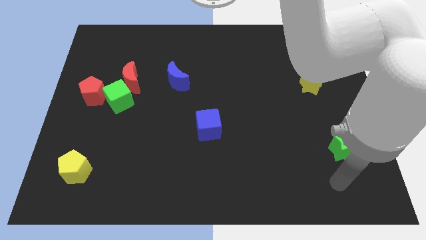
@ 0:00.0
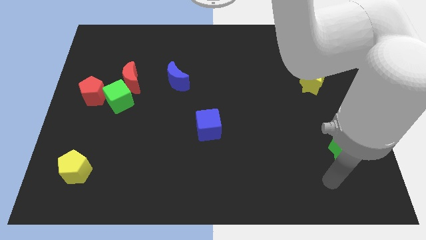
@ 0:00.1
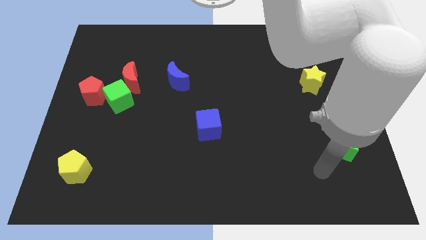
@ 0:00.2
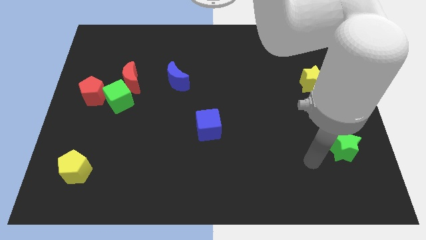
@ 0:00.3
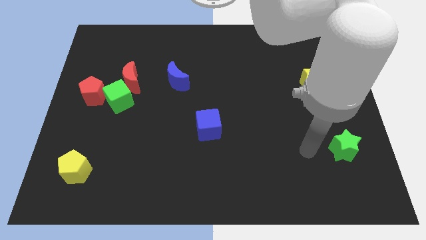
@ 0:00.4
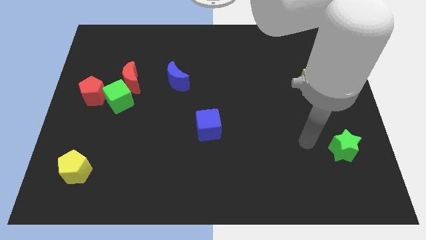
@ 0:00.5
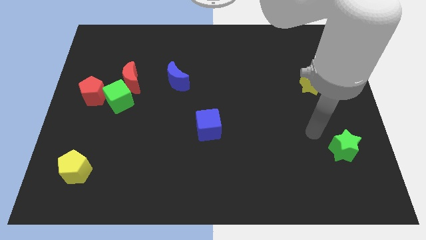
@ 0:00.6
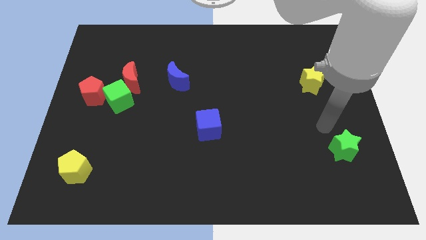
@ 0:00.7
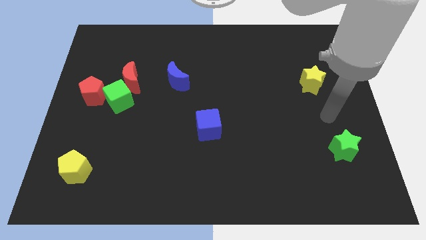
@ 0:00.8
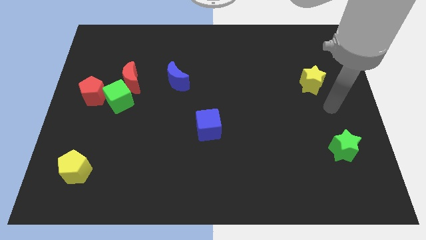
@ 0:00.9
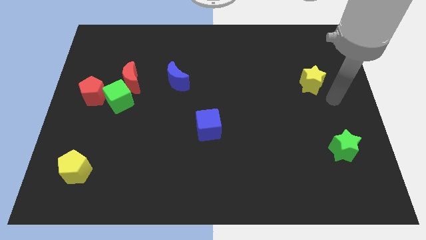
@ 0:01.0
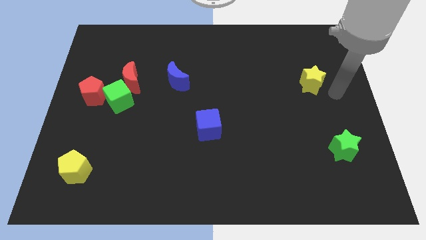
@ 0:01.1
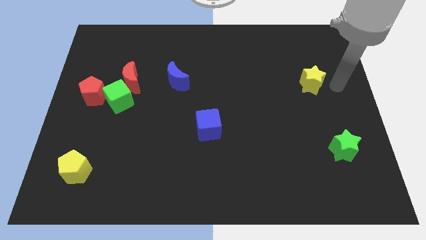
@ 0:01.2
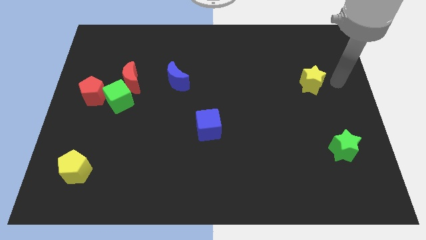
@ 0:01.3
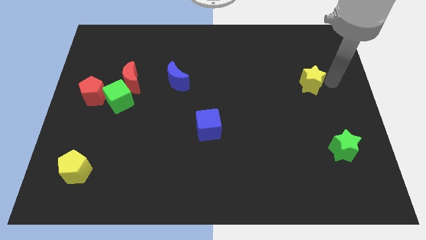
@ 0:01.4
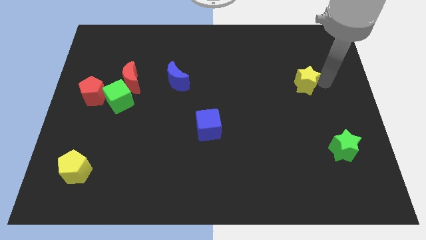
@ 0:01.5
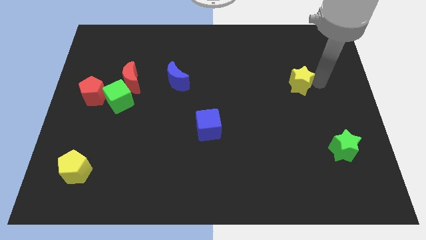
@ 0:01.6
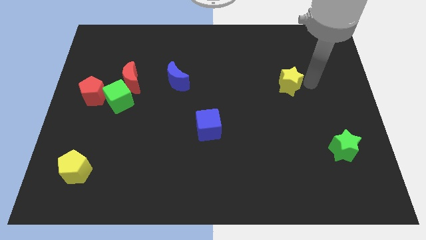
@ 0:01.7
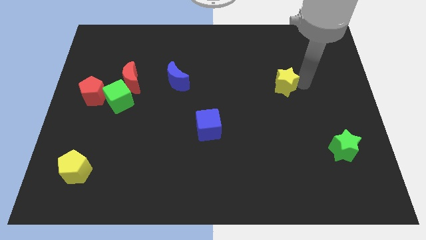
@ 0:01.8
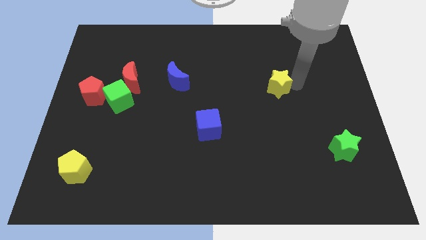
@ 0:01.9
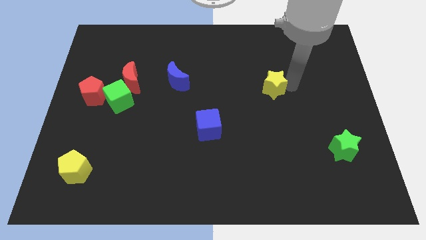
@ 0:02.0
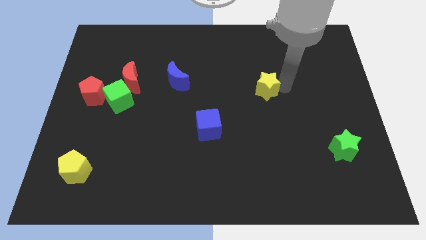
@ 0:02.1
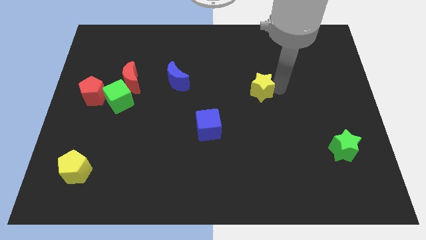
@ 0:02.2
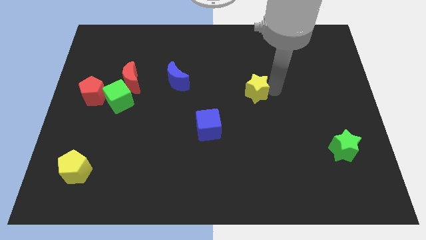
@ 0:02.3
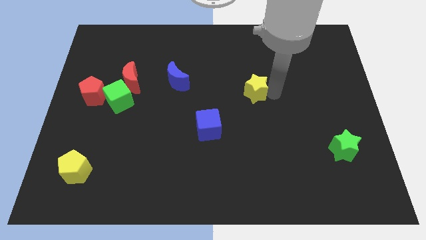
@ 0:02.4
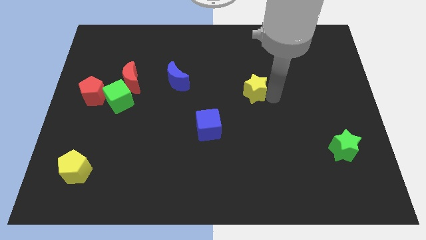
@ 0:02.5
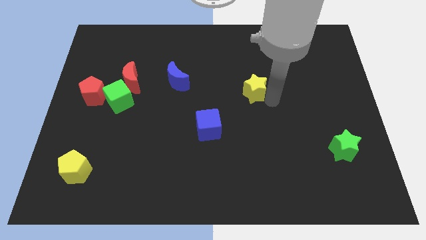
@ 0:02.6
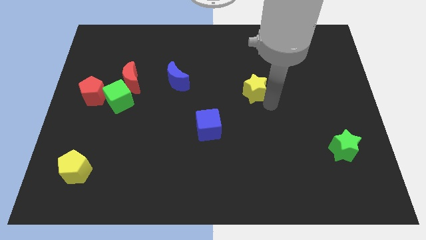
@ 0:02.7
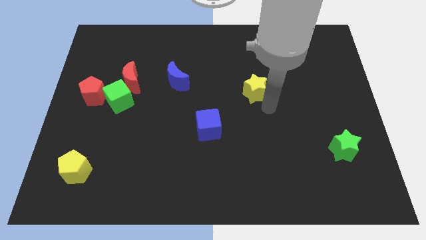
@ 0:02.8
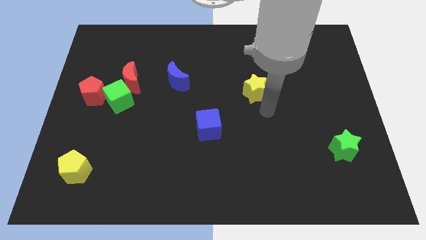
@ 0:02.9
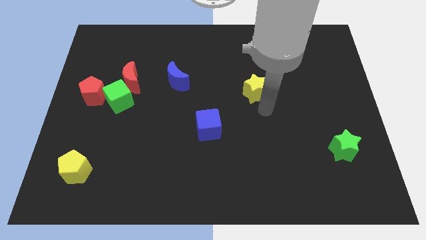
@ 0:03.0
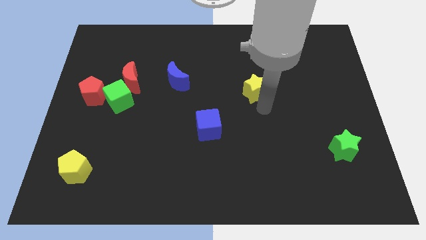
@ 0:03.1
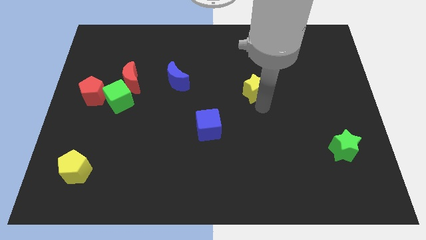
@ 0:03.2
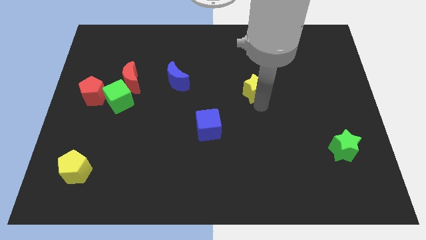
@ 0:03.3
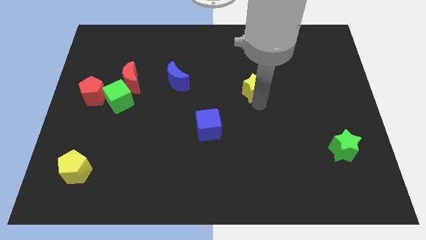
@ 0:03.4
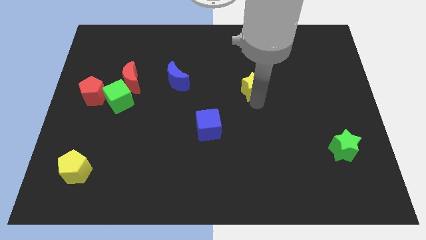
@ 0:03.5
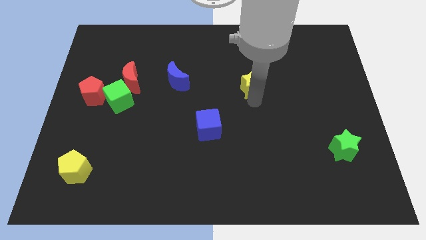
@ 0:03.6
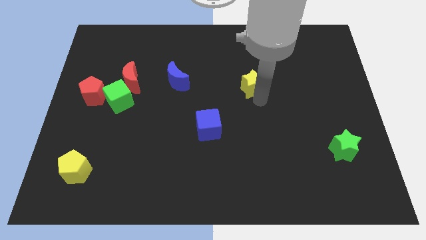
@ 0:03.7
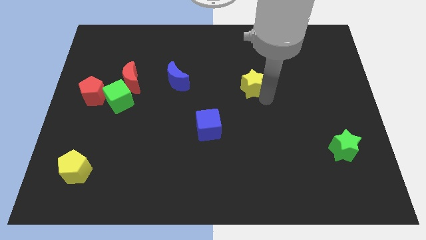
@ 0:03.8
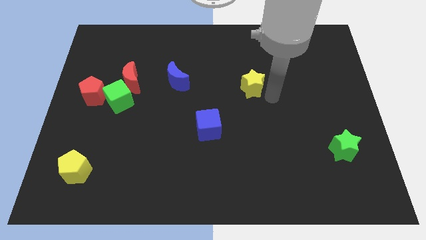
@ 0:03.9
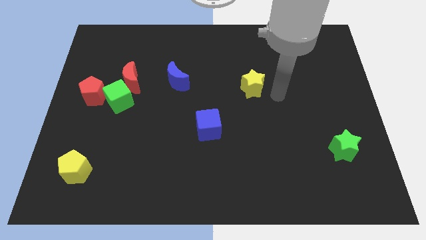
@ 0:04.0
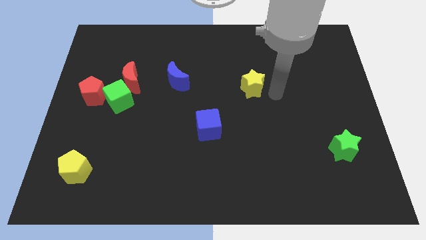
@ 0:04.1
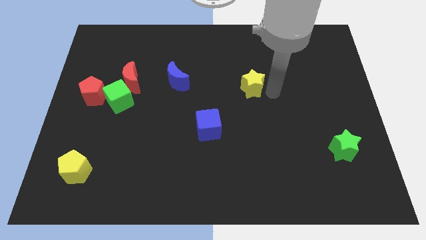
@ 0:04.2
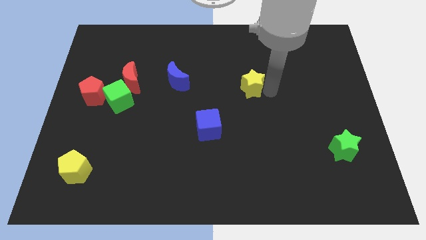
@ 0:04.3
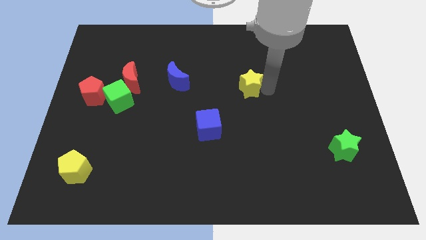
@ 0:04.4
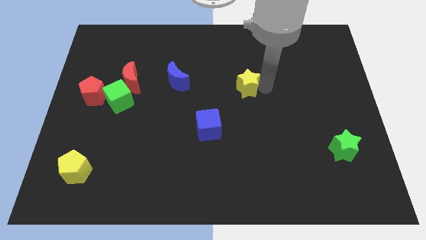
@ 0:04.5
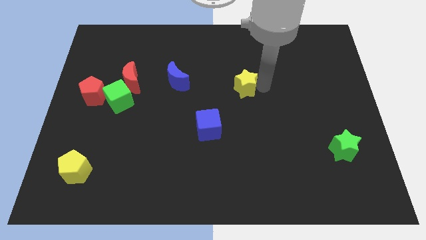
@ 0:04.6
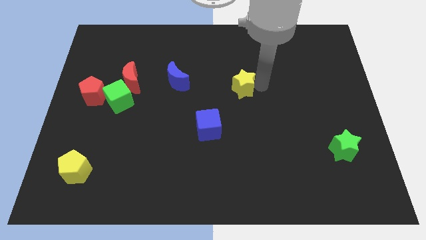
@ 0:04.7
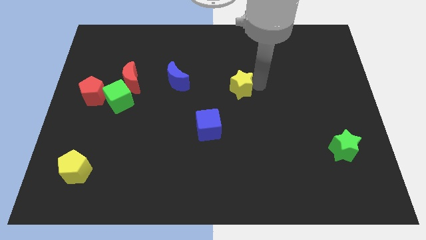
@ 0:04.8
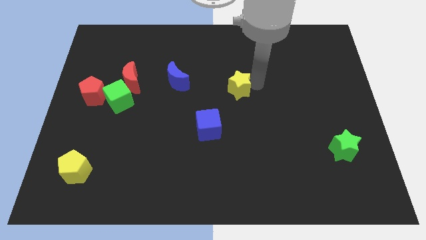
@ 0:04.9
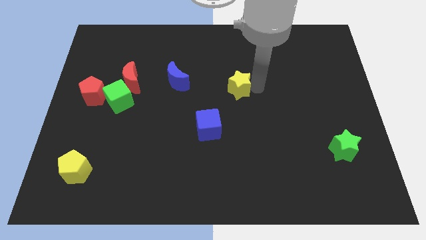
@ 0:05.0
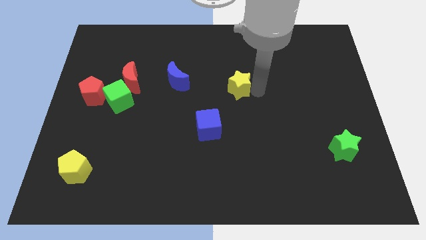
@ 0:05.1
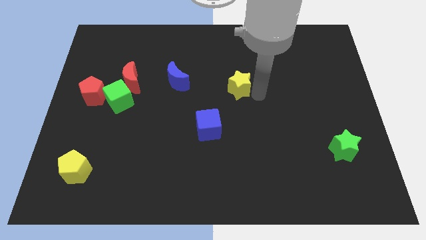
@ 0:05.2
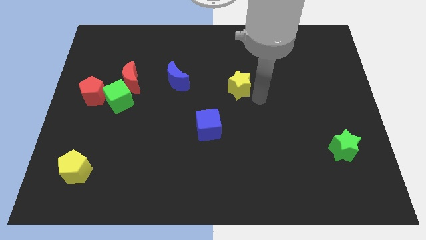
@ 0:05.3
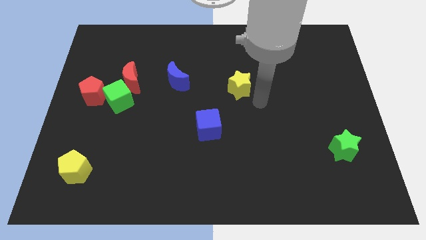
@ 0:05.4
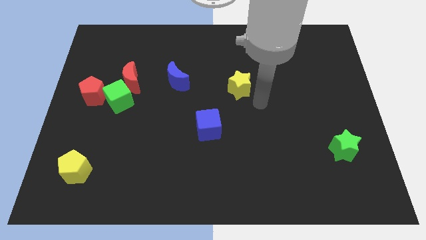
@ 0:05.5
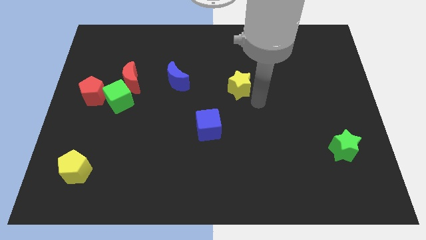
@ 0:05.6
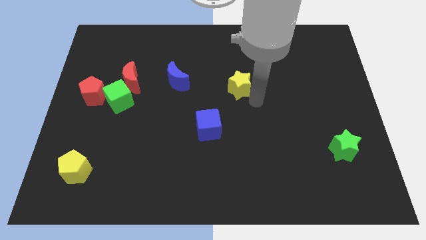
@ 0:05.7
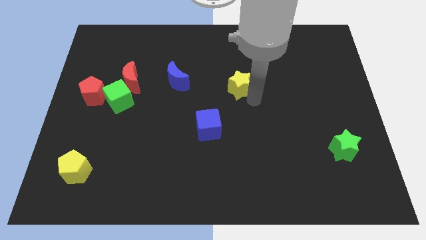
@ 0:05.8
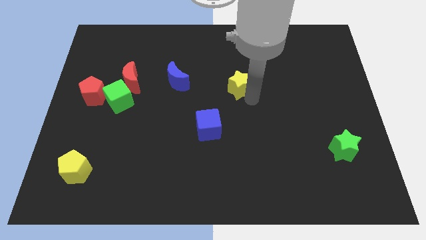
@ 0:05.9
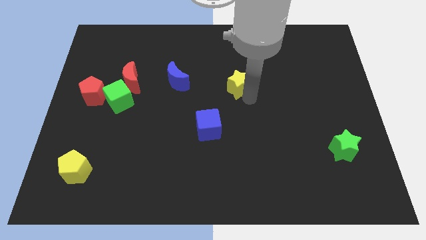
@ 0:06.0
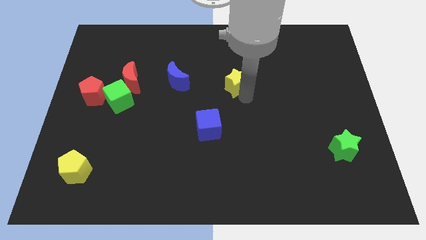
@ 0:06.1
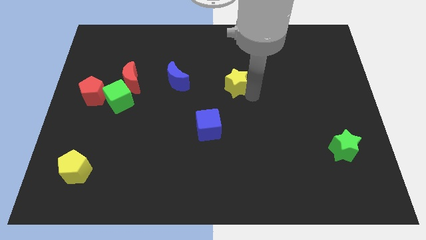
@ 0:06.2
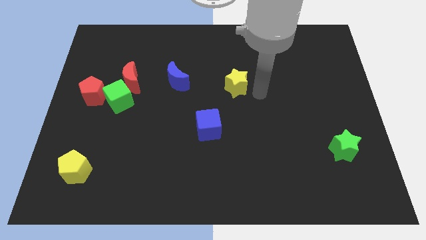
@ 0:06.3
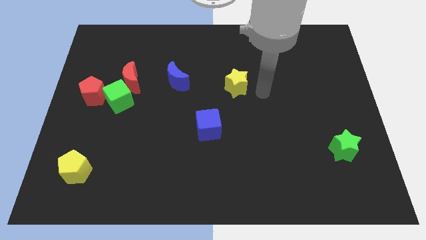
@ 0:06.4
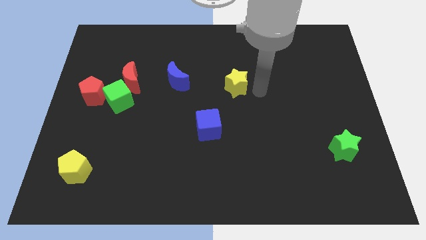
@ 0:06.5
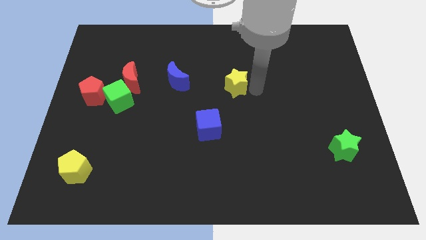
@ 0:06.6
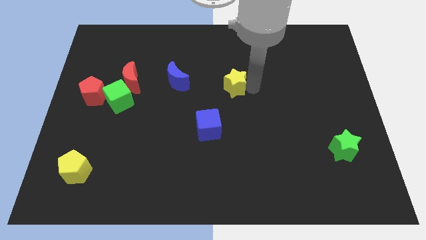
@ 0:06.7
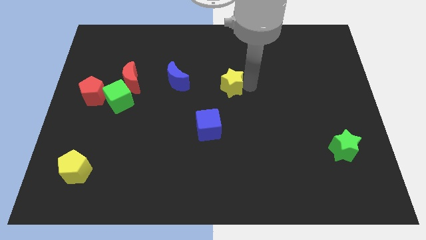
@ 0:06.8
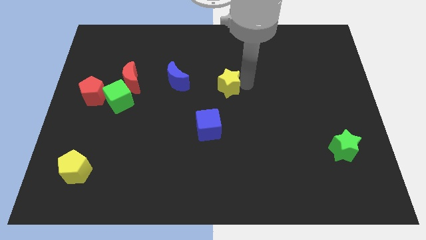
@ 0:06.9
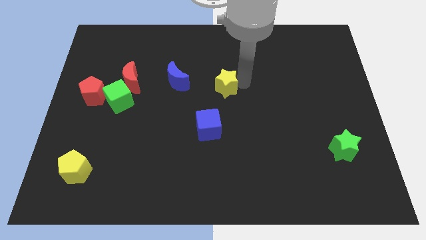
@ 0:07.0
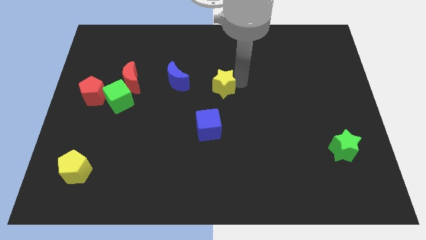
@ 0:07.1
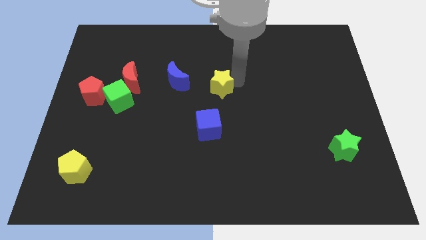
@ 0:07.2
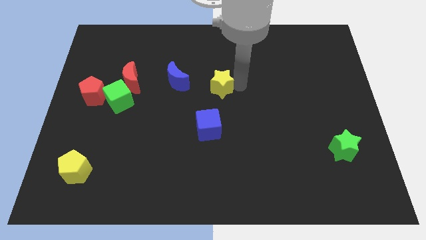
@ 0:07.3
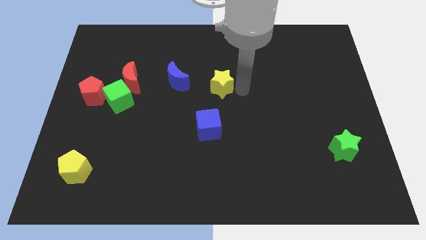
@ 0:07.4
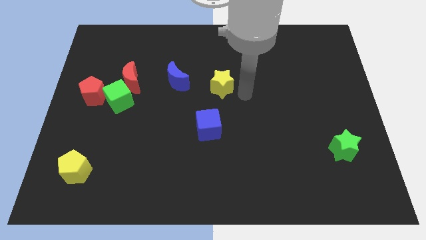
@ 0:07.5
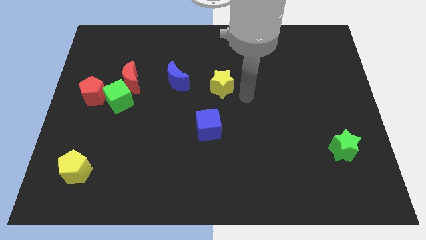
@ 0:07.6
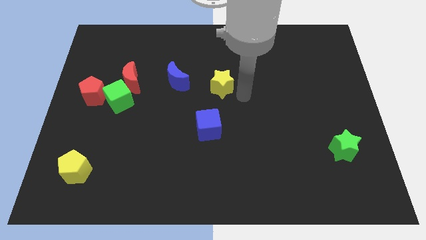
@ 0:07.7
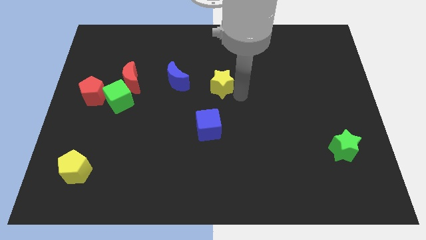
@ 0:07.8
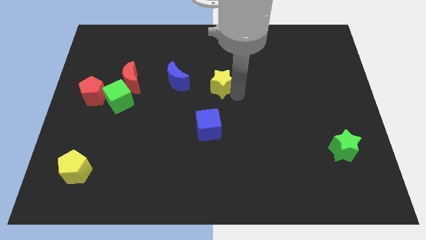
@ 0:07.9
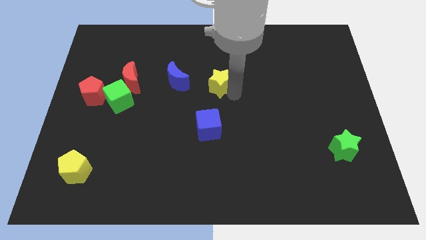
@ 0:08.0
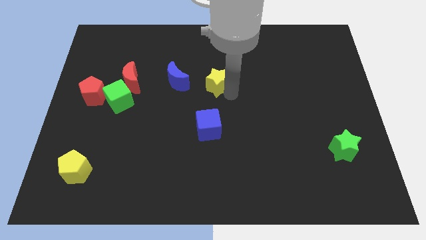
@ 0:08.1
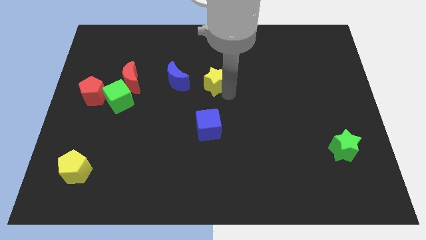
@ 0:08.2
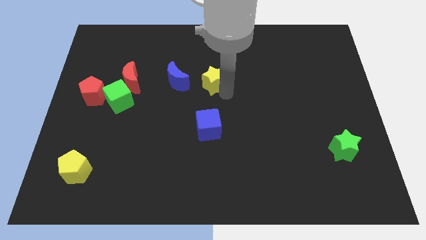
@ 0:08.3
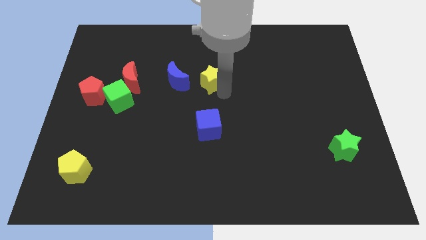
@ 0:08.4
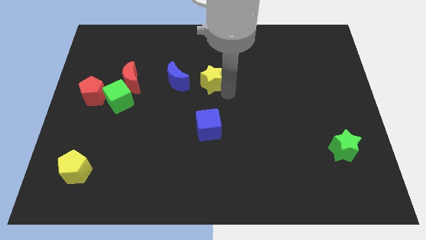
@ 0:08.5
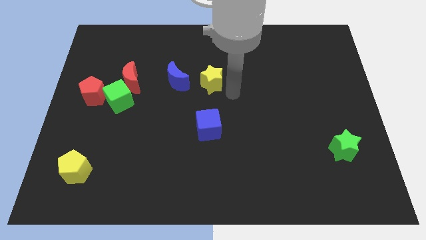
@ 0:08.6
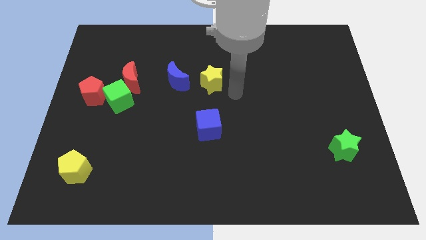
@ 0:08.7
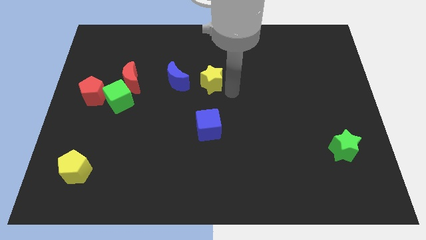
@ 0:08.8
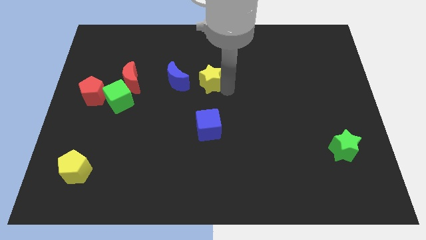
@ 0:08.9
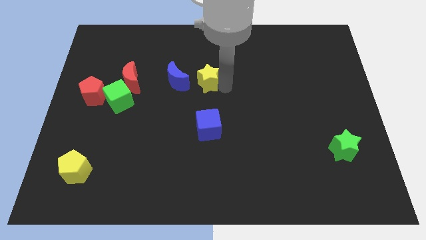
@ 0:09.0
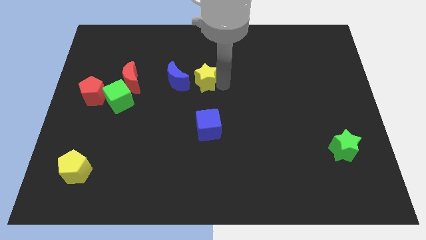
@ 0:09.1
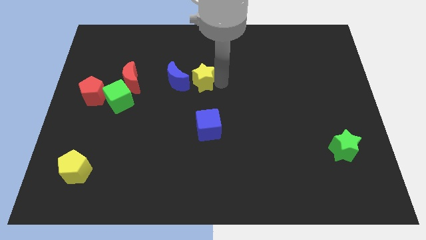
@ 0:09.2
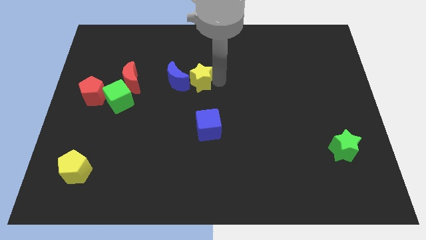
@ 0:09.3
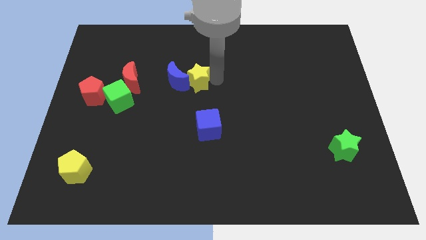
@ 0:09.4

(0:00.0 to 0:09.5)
push the yellow star close to the blue moon
